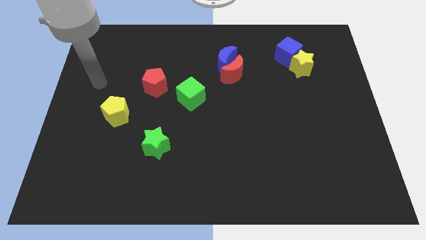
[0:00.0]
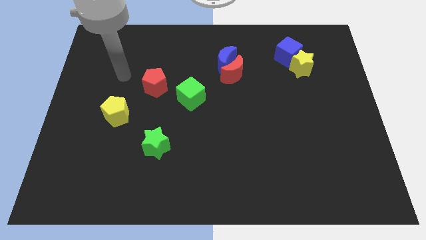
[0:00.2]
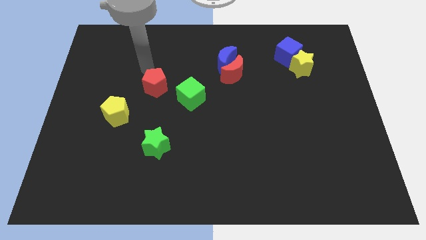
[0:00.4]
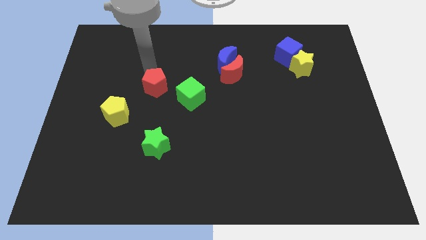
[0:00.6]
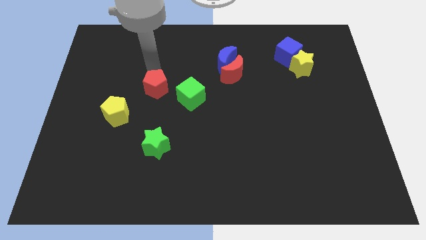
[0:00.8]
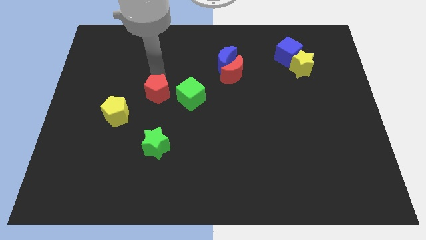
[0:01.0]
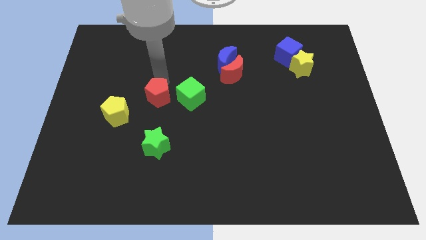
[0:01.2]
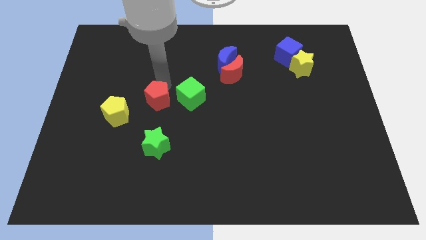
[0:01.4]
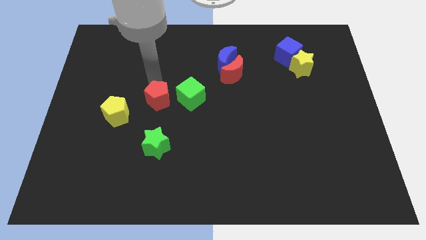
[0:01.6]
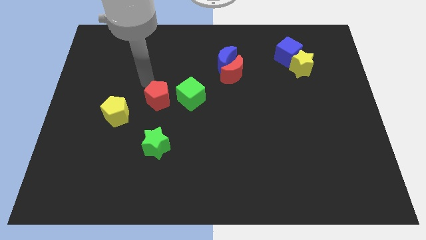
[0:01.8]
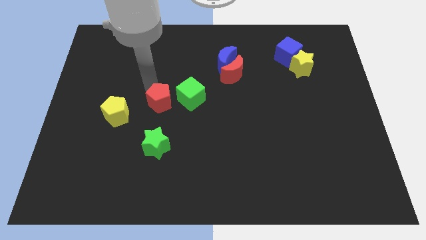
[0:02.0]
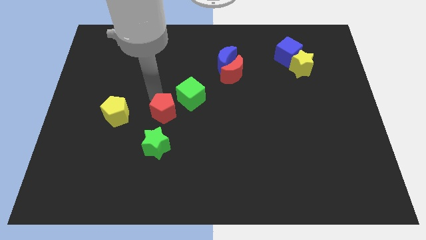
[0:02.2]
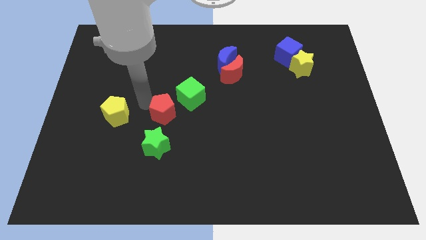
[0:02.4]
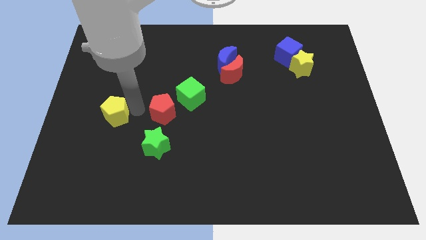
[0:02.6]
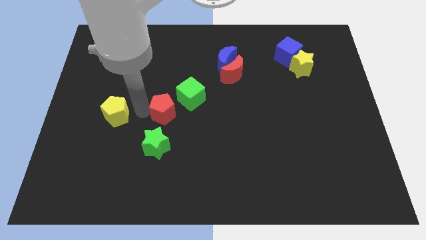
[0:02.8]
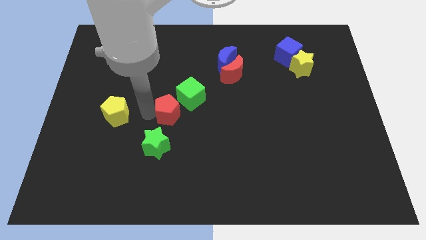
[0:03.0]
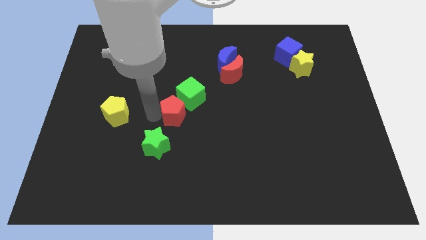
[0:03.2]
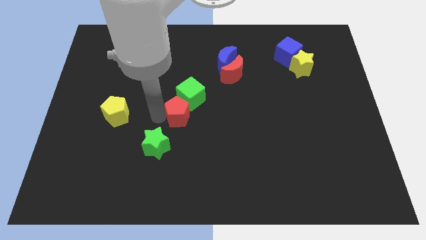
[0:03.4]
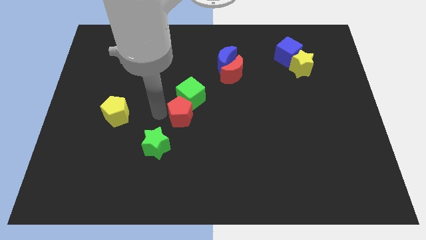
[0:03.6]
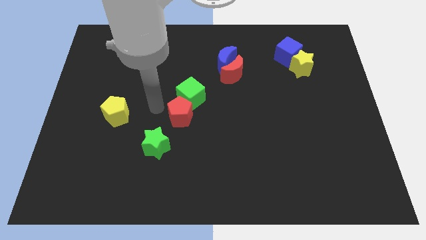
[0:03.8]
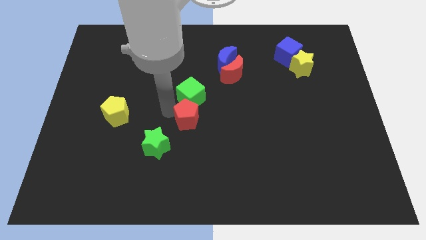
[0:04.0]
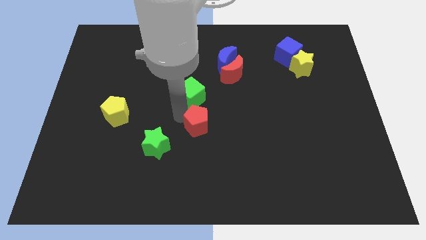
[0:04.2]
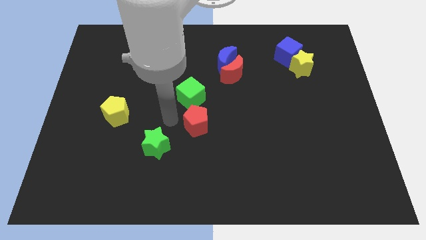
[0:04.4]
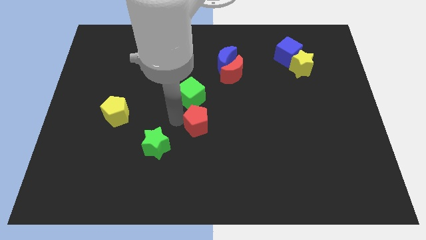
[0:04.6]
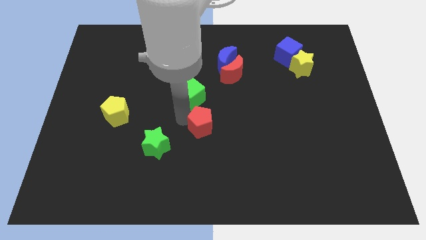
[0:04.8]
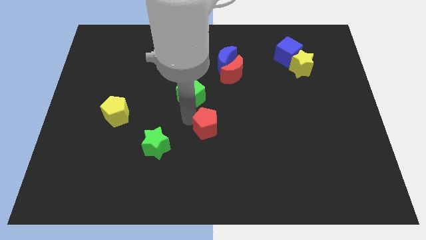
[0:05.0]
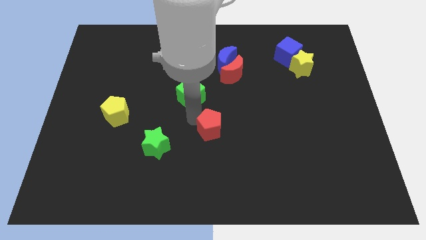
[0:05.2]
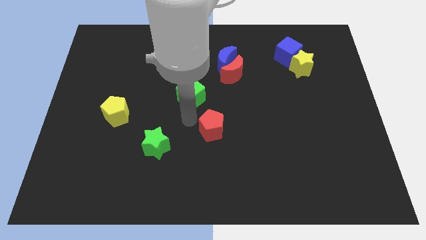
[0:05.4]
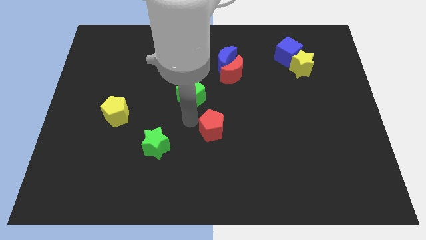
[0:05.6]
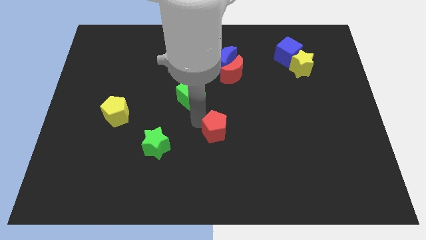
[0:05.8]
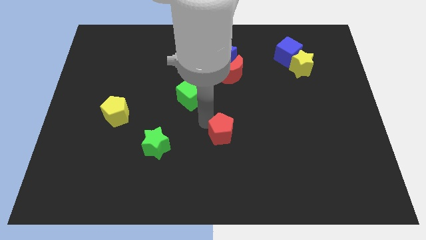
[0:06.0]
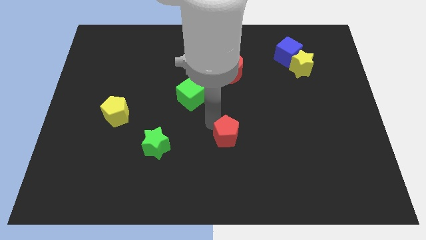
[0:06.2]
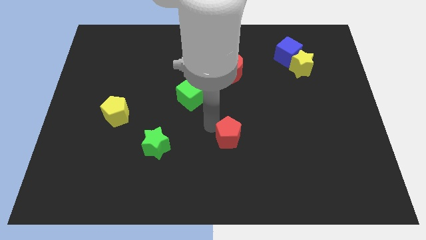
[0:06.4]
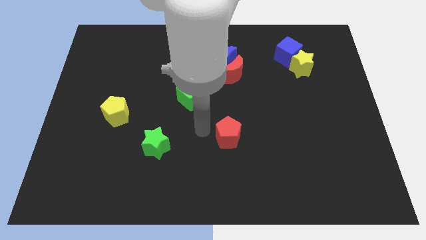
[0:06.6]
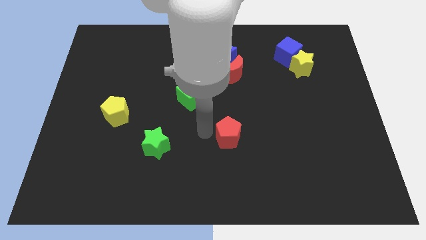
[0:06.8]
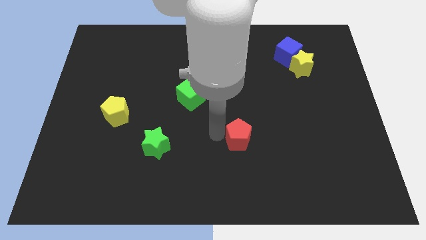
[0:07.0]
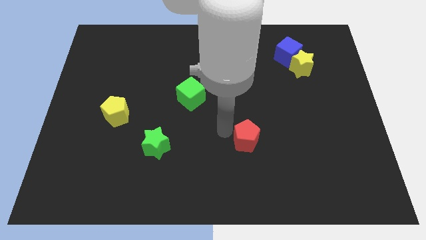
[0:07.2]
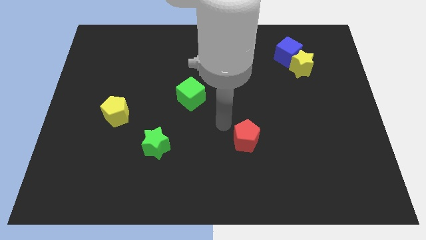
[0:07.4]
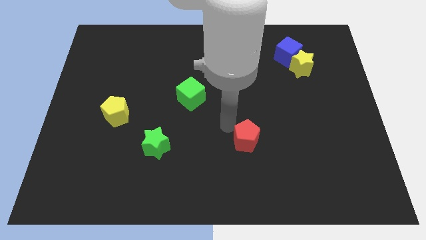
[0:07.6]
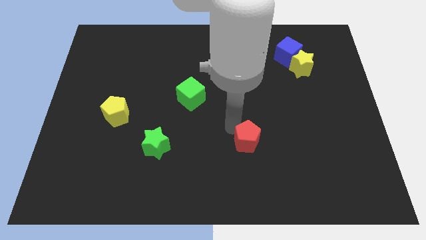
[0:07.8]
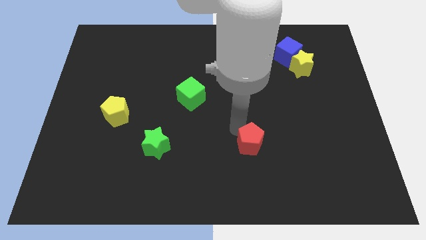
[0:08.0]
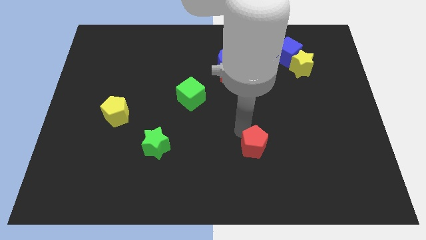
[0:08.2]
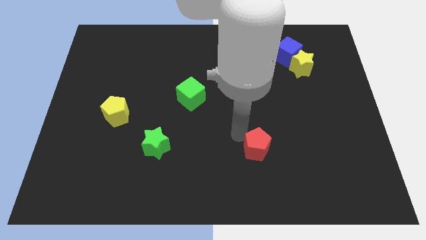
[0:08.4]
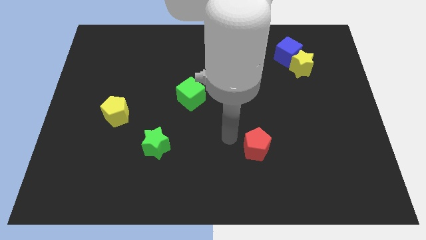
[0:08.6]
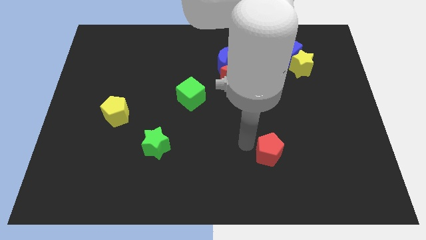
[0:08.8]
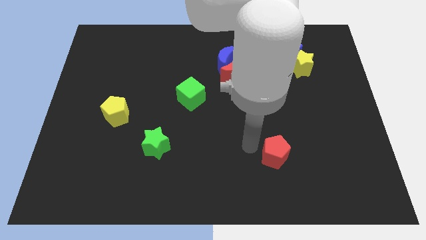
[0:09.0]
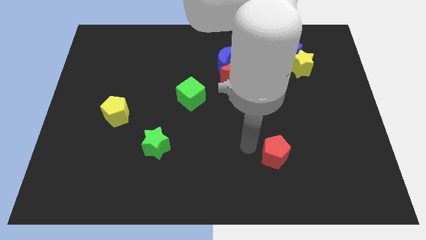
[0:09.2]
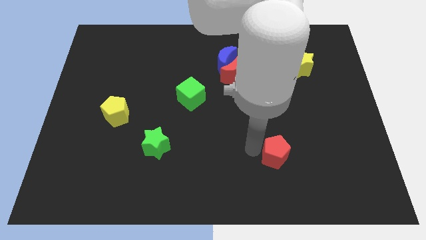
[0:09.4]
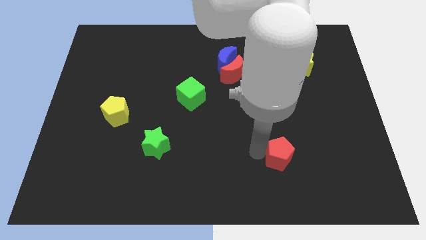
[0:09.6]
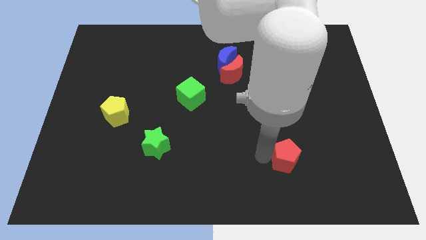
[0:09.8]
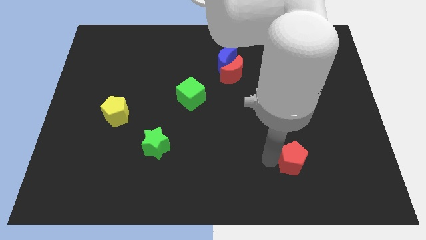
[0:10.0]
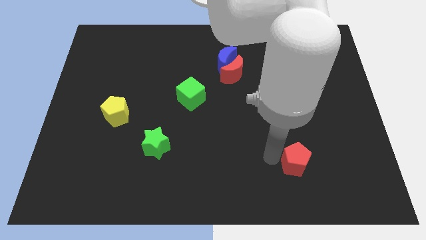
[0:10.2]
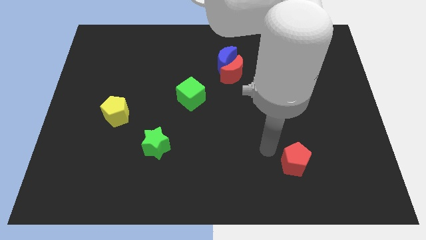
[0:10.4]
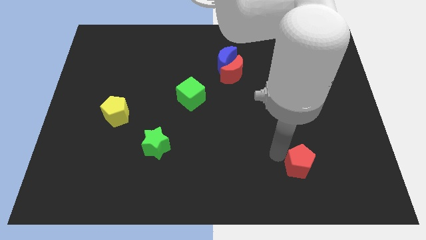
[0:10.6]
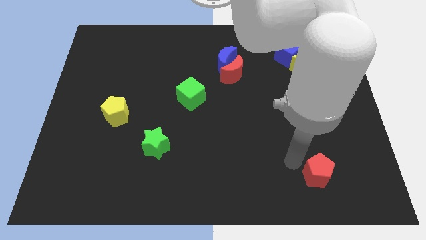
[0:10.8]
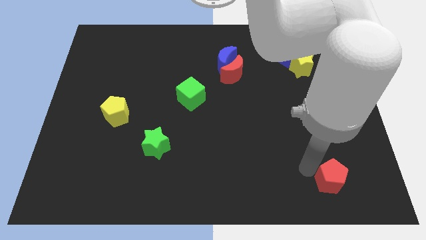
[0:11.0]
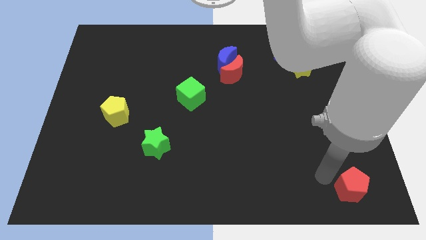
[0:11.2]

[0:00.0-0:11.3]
slide the red pentagon to the bottom right
